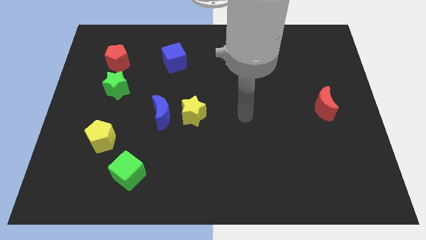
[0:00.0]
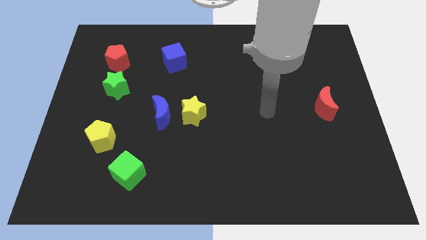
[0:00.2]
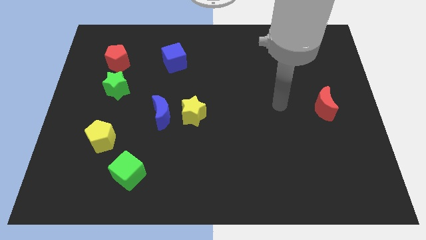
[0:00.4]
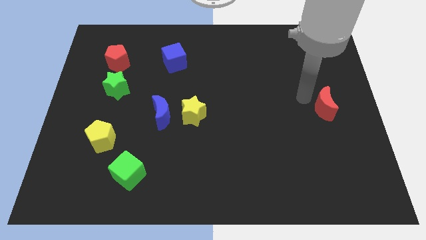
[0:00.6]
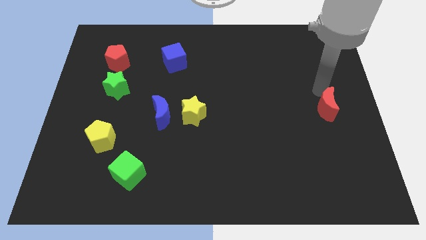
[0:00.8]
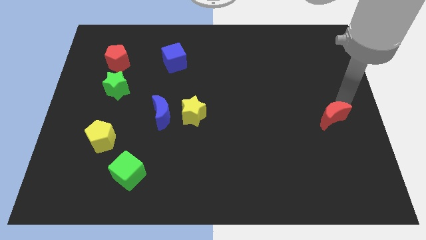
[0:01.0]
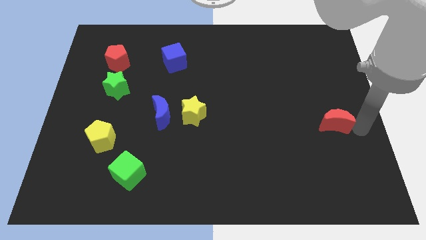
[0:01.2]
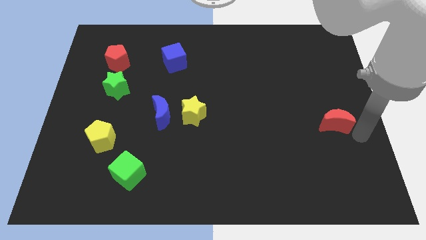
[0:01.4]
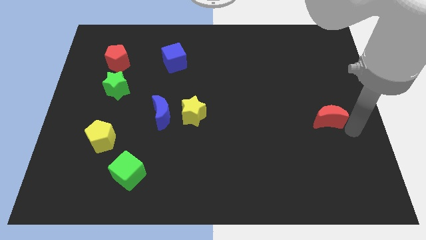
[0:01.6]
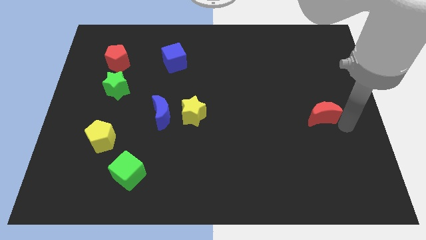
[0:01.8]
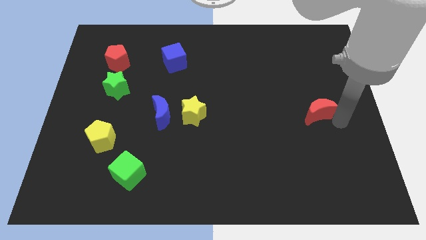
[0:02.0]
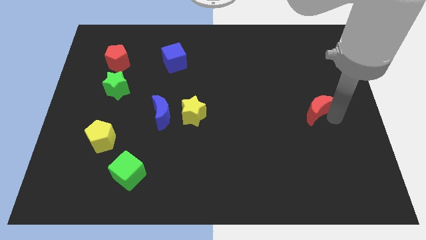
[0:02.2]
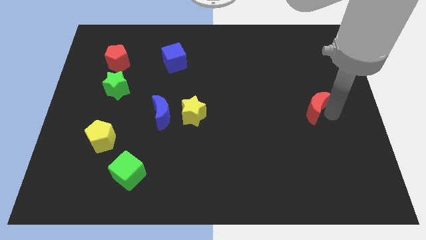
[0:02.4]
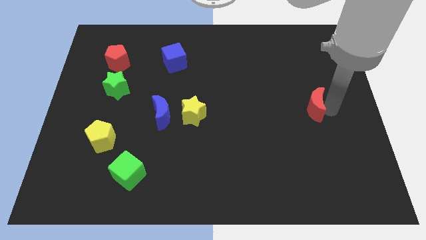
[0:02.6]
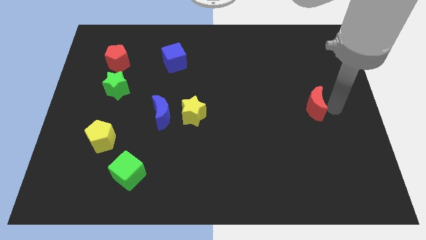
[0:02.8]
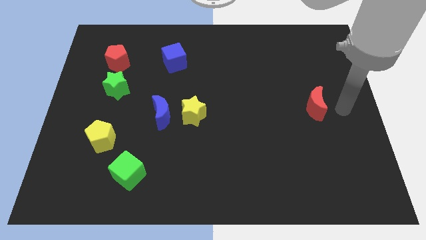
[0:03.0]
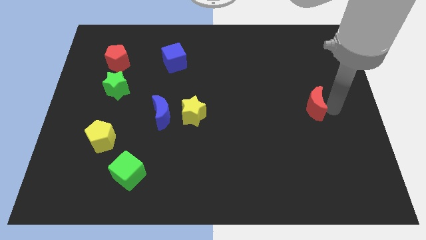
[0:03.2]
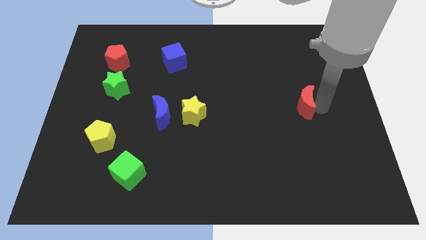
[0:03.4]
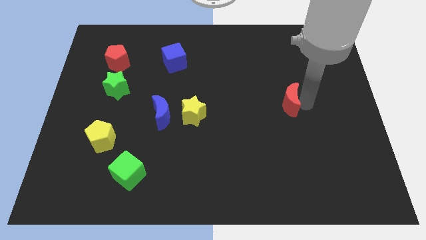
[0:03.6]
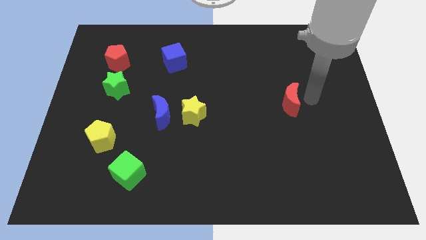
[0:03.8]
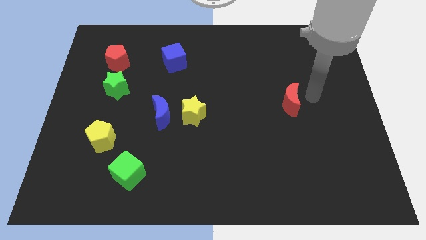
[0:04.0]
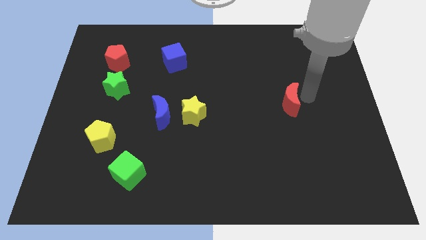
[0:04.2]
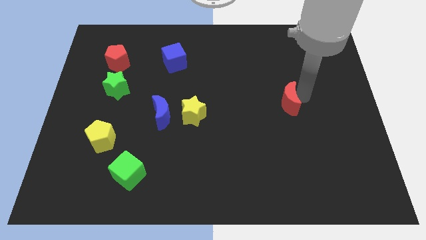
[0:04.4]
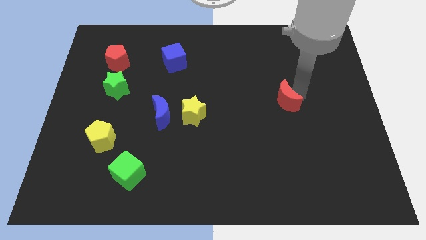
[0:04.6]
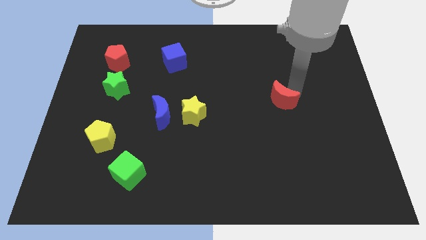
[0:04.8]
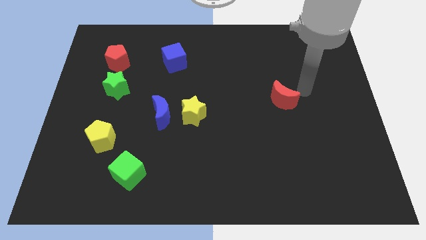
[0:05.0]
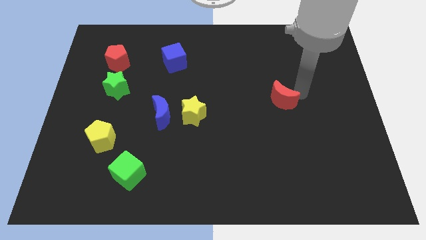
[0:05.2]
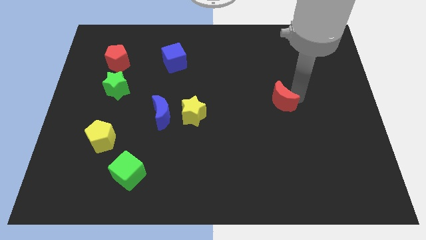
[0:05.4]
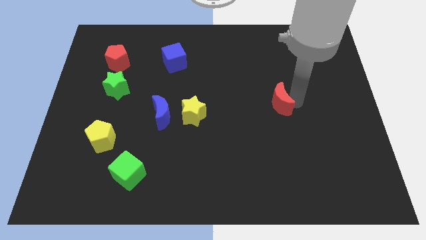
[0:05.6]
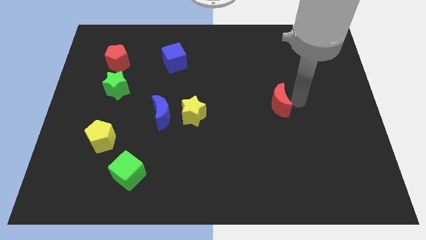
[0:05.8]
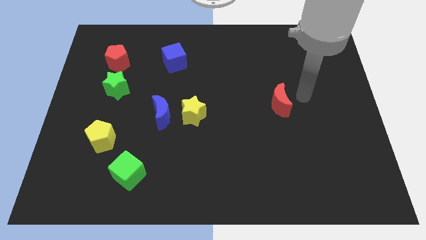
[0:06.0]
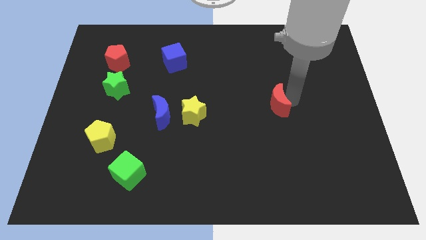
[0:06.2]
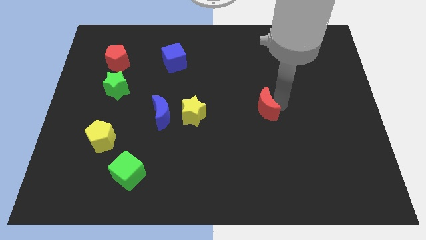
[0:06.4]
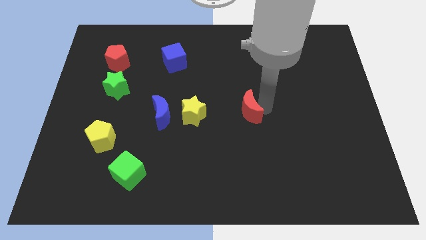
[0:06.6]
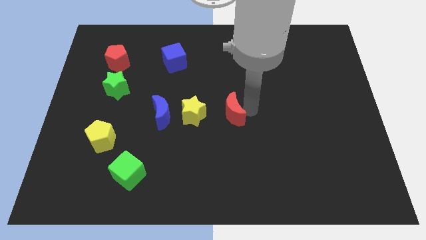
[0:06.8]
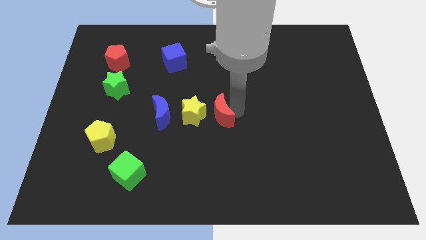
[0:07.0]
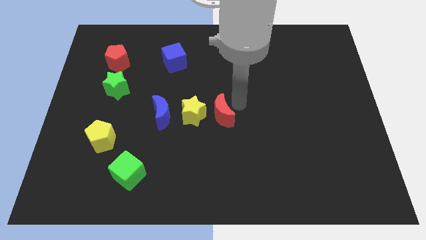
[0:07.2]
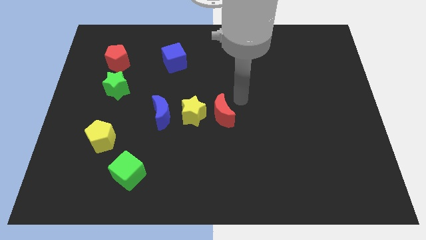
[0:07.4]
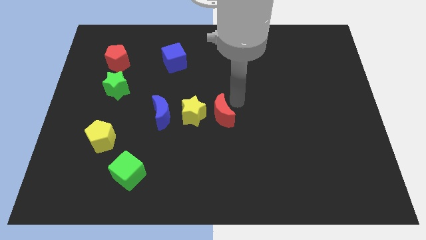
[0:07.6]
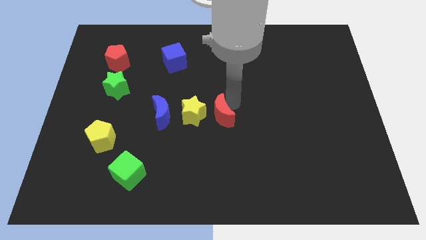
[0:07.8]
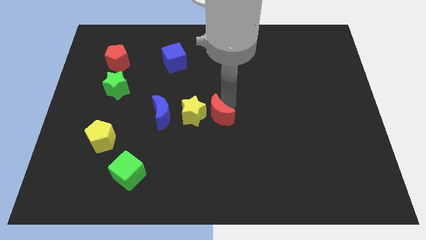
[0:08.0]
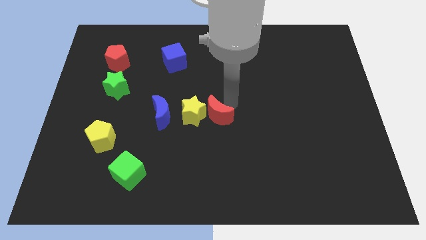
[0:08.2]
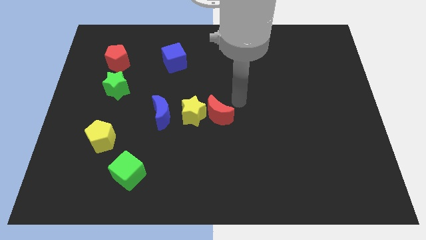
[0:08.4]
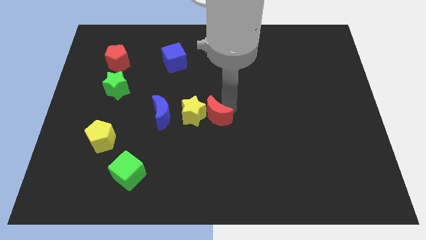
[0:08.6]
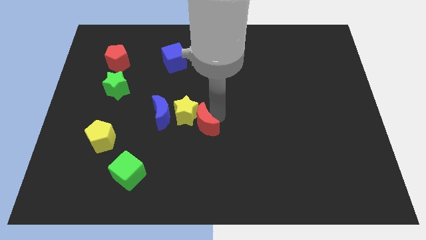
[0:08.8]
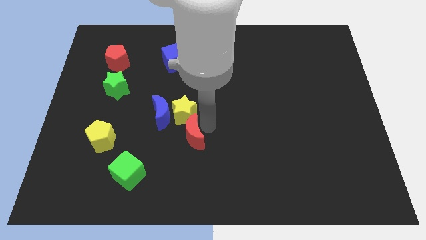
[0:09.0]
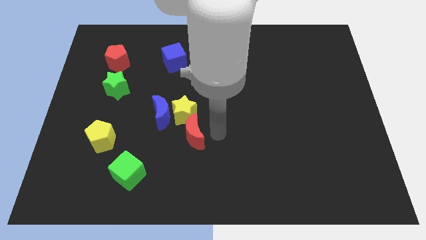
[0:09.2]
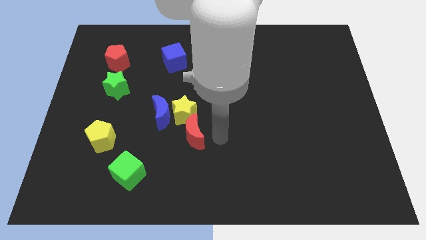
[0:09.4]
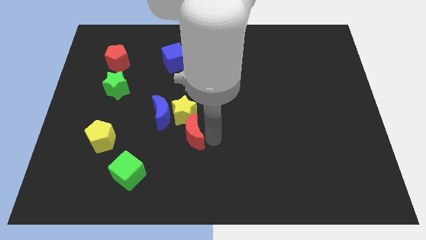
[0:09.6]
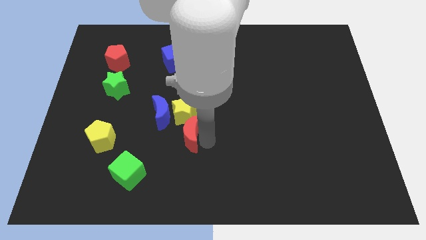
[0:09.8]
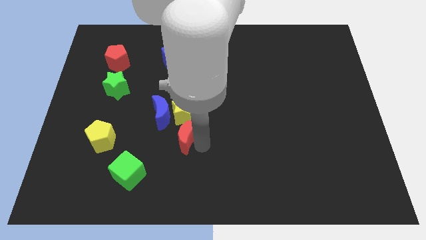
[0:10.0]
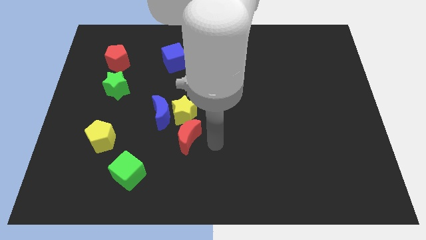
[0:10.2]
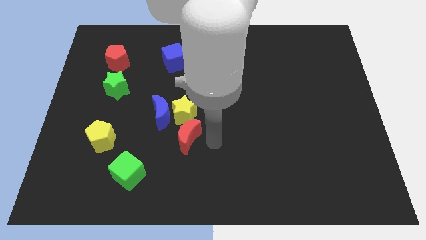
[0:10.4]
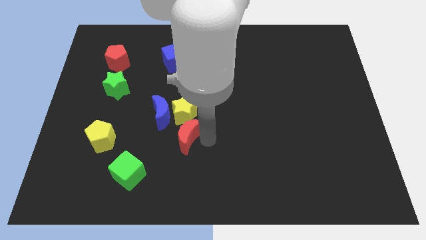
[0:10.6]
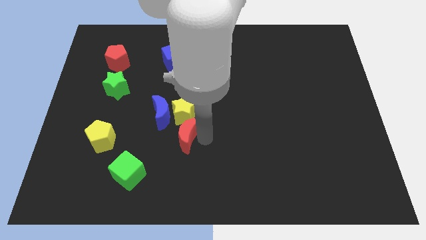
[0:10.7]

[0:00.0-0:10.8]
push the red moon to the bottom left of the yellow star

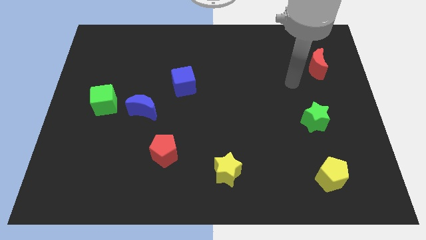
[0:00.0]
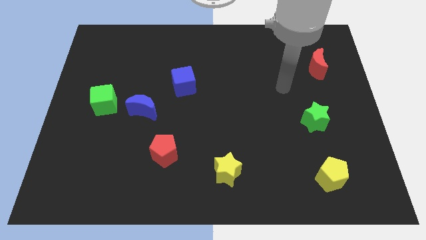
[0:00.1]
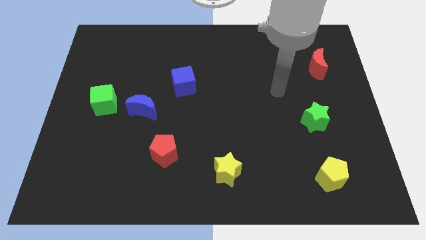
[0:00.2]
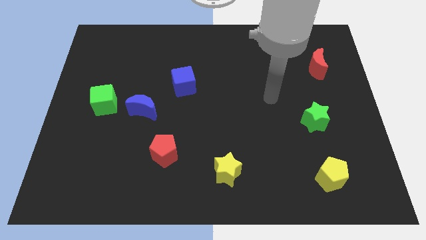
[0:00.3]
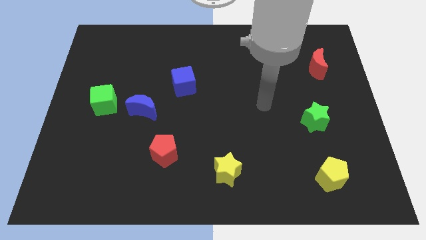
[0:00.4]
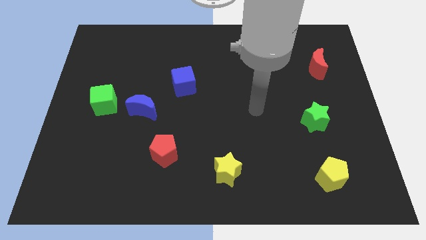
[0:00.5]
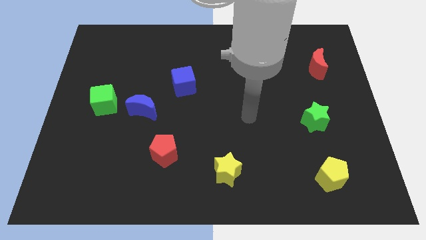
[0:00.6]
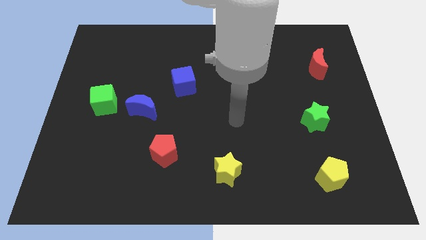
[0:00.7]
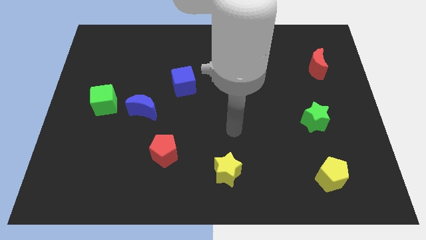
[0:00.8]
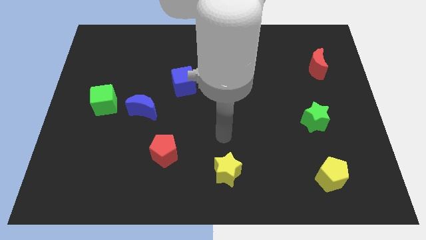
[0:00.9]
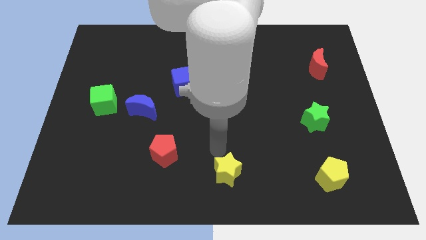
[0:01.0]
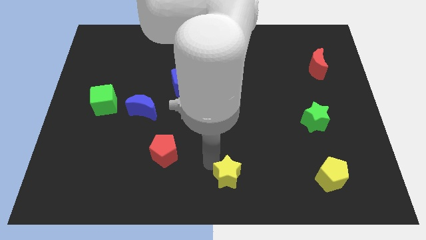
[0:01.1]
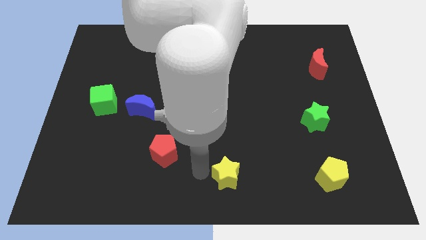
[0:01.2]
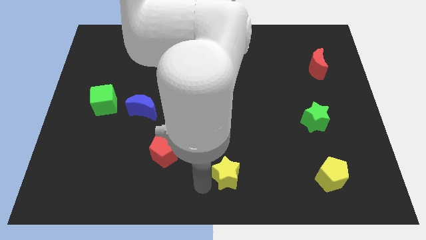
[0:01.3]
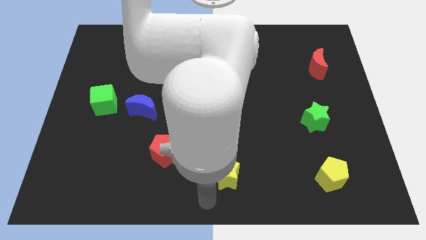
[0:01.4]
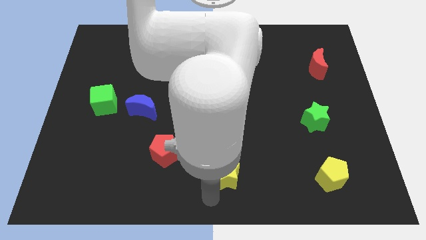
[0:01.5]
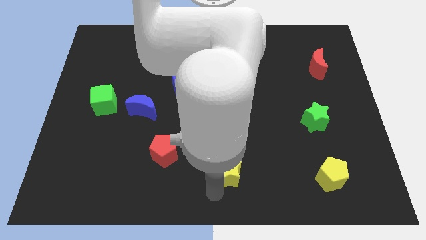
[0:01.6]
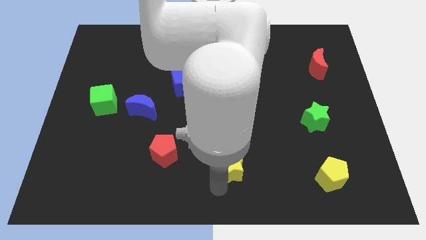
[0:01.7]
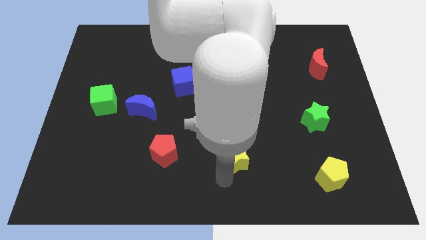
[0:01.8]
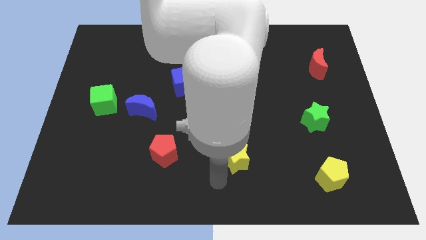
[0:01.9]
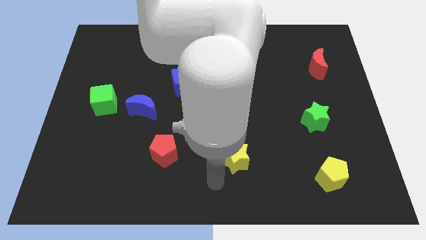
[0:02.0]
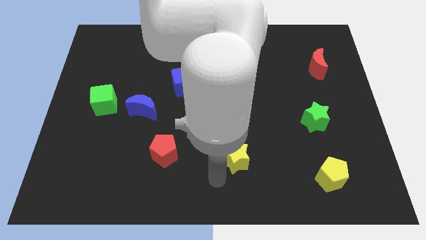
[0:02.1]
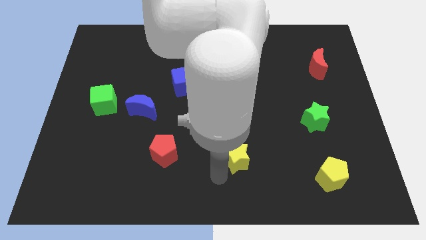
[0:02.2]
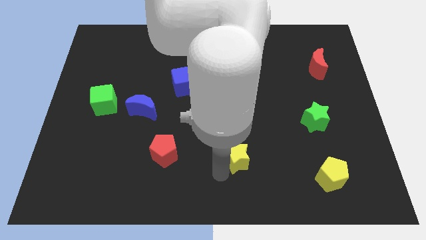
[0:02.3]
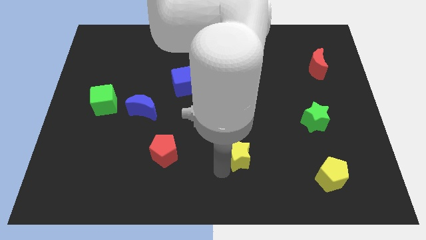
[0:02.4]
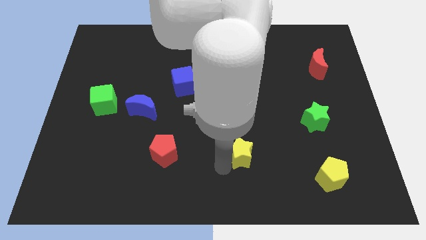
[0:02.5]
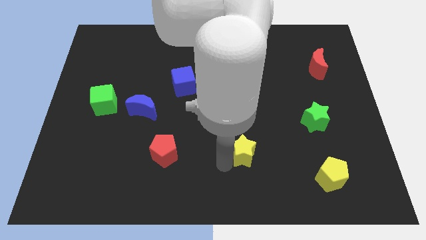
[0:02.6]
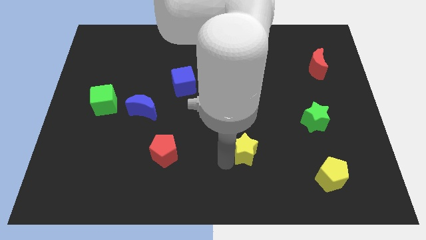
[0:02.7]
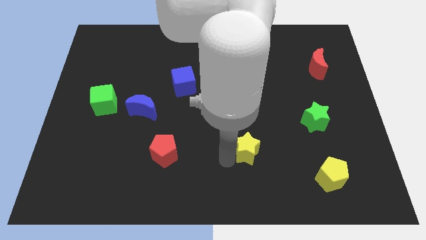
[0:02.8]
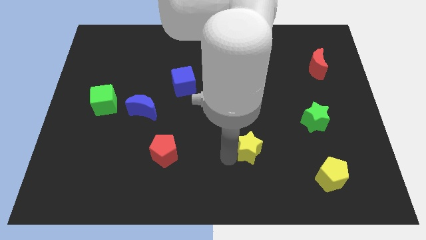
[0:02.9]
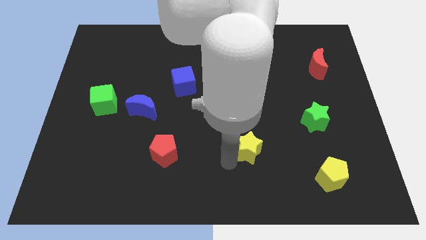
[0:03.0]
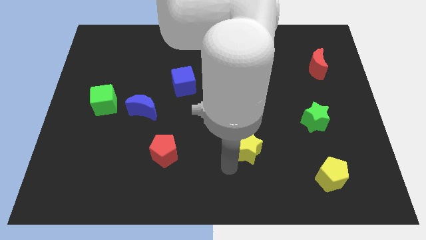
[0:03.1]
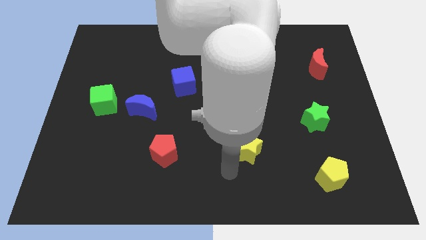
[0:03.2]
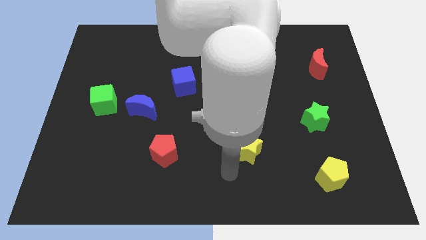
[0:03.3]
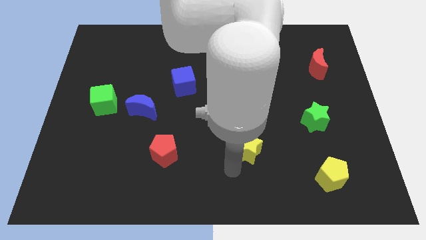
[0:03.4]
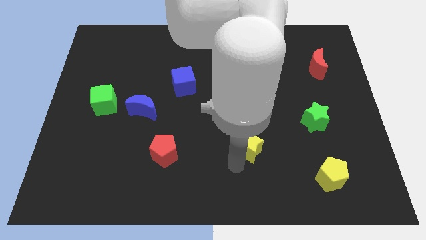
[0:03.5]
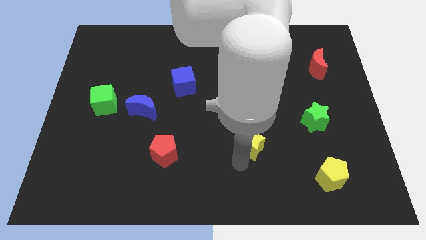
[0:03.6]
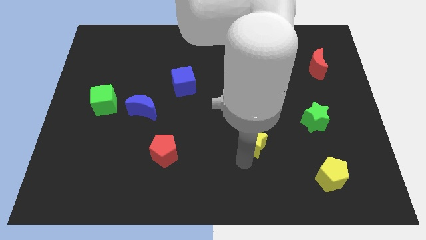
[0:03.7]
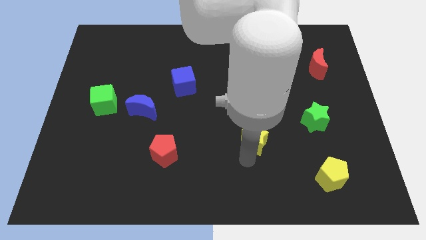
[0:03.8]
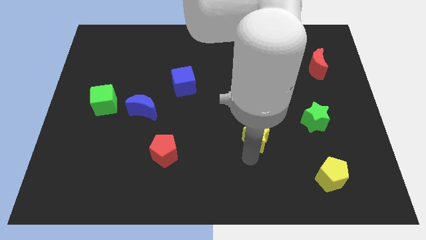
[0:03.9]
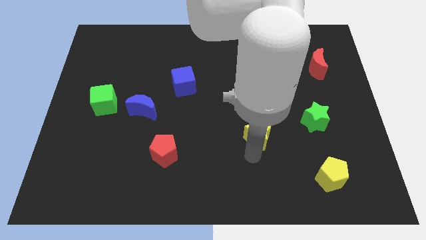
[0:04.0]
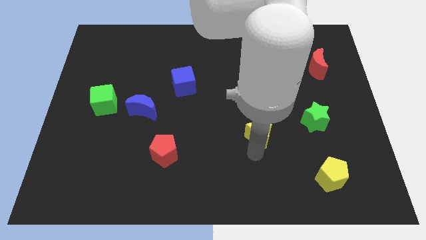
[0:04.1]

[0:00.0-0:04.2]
move the yellow star to the left side of the green star
